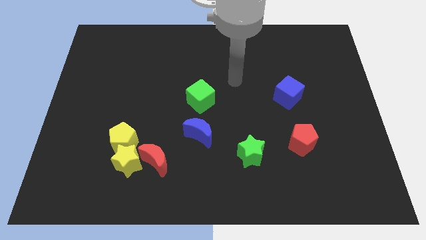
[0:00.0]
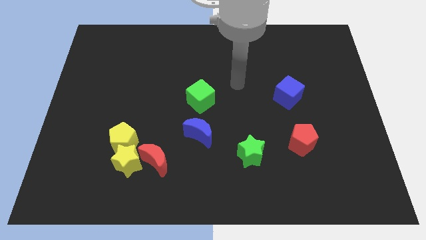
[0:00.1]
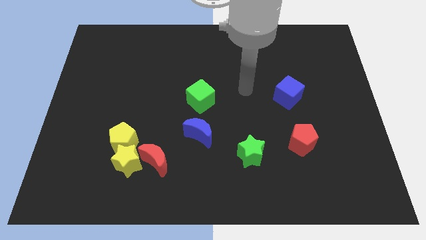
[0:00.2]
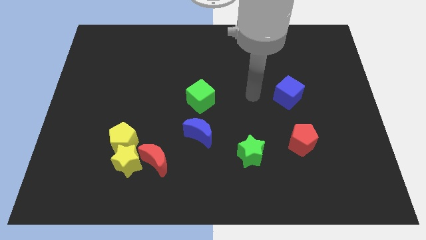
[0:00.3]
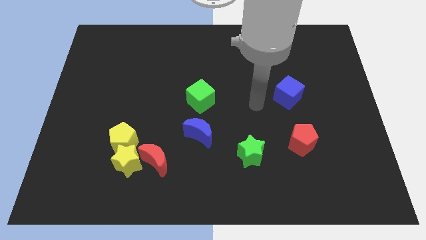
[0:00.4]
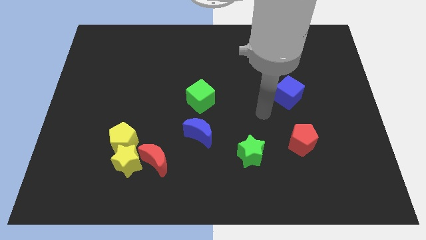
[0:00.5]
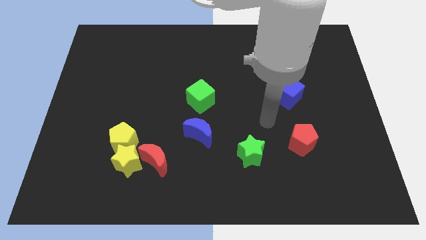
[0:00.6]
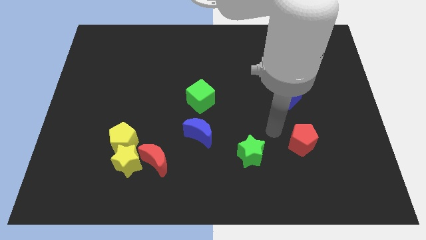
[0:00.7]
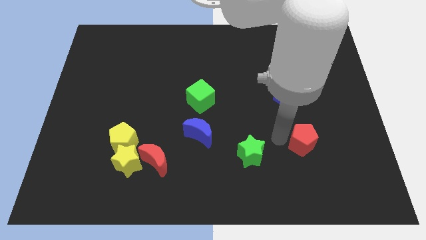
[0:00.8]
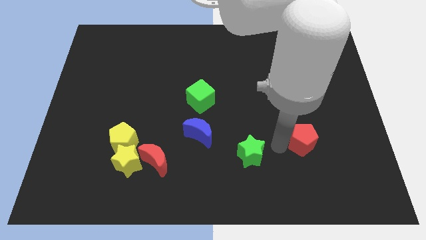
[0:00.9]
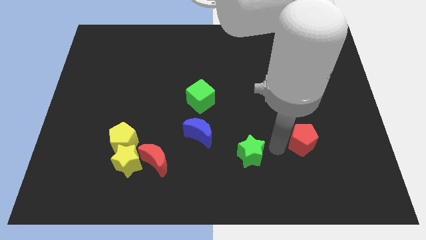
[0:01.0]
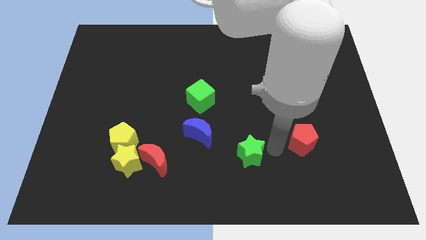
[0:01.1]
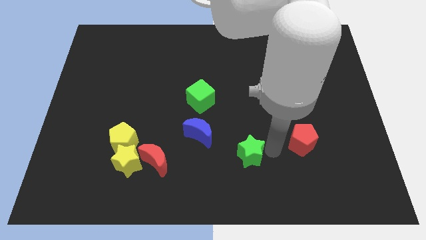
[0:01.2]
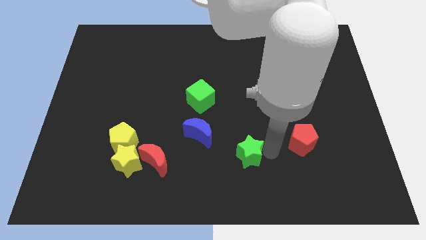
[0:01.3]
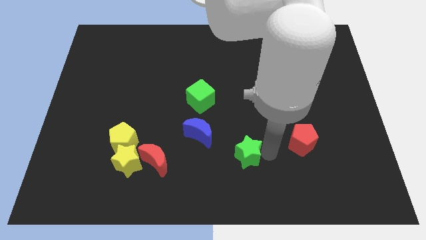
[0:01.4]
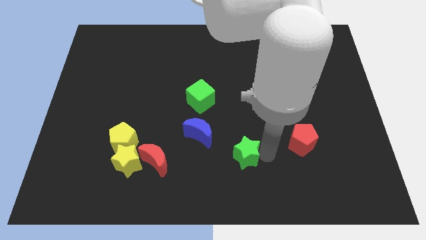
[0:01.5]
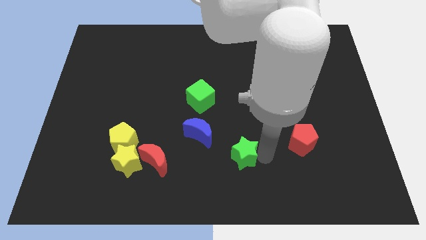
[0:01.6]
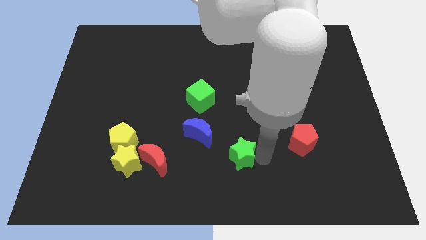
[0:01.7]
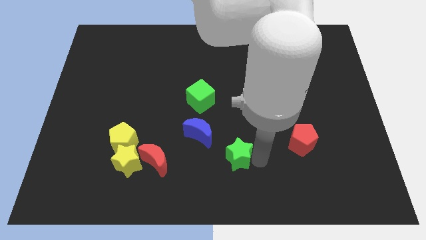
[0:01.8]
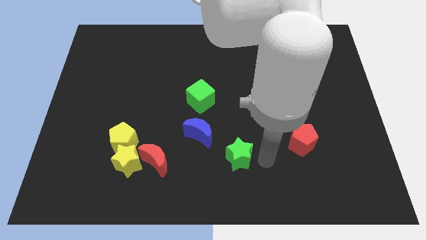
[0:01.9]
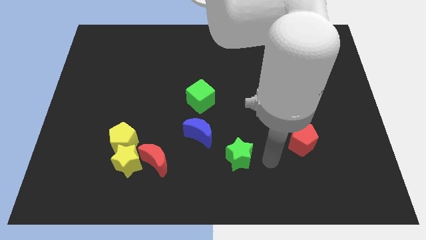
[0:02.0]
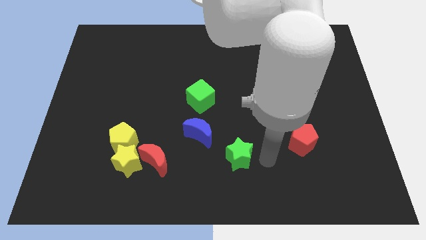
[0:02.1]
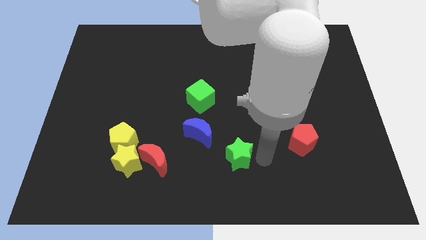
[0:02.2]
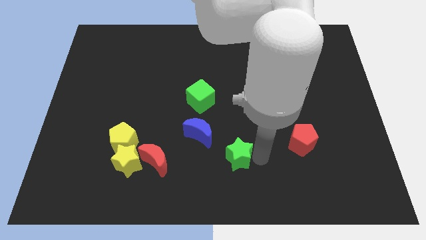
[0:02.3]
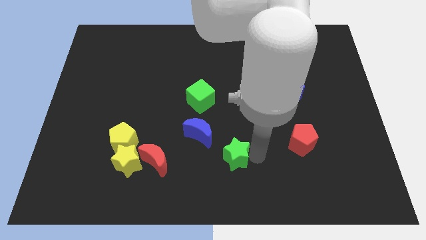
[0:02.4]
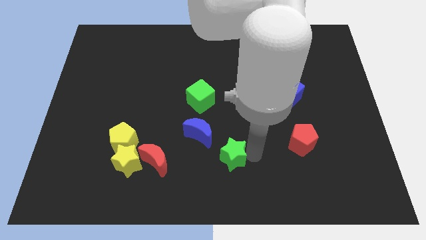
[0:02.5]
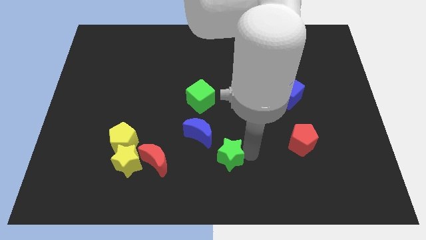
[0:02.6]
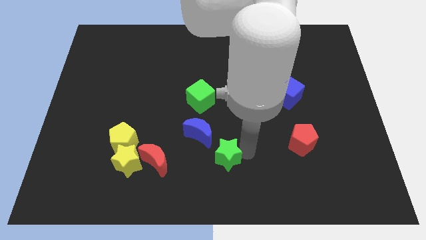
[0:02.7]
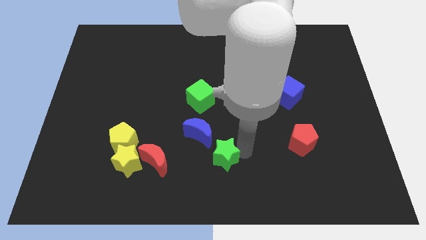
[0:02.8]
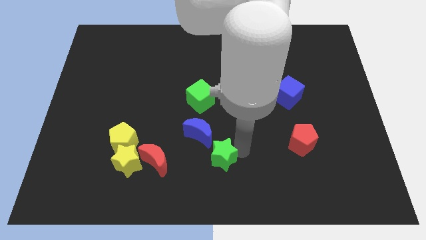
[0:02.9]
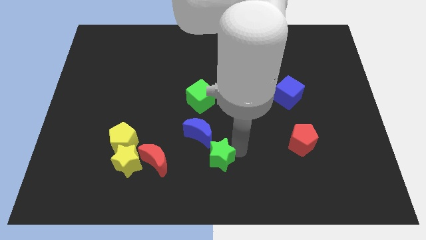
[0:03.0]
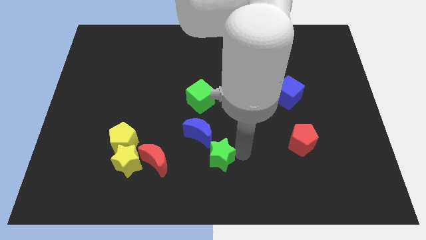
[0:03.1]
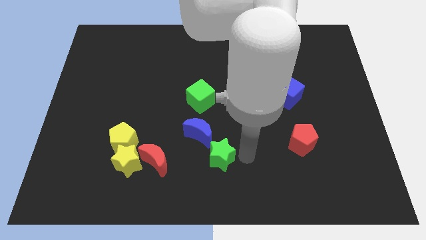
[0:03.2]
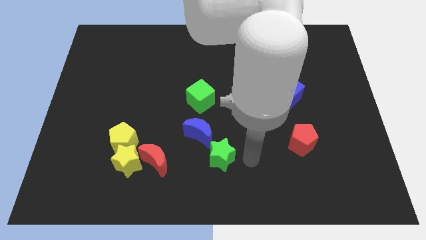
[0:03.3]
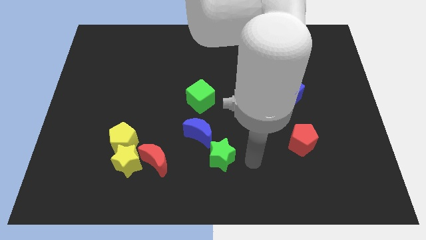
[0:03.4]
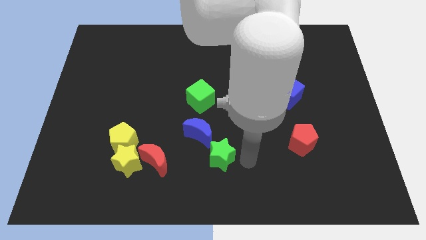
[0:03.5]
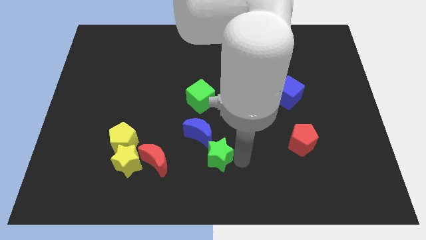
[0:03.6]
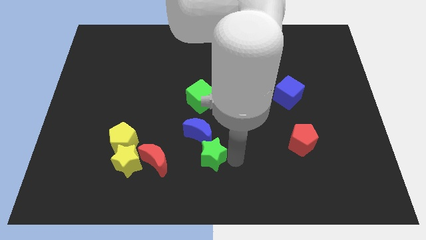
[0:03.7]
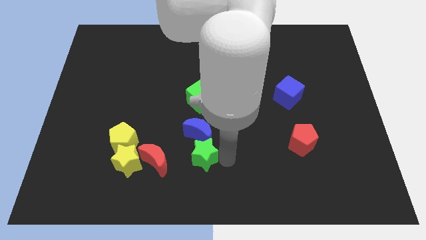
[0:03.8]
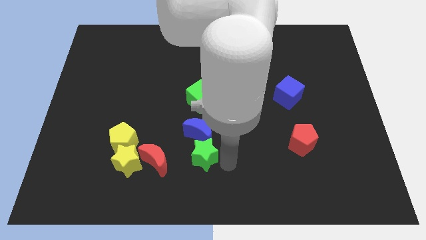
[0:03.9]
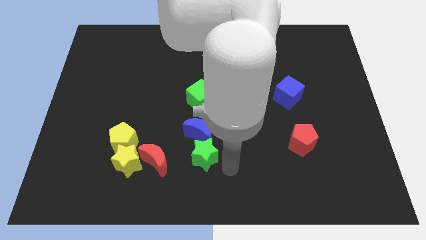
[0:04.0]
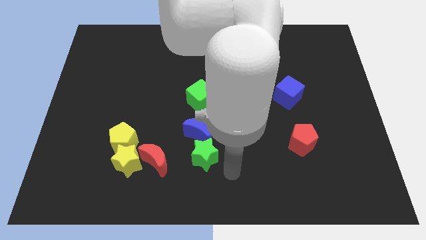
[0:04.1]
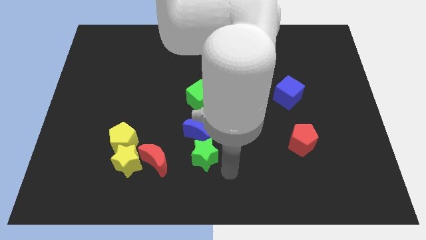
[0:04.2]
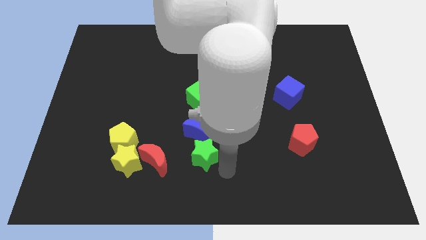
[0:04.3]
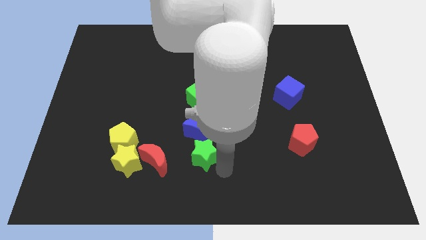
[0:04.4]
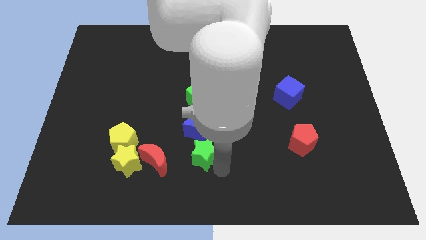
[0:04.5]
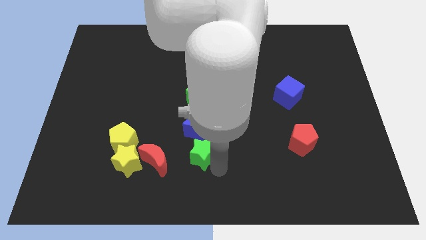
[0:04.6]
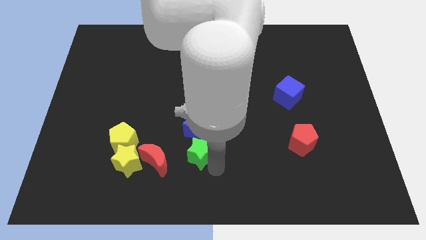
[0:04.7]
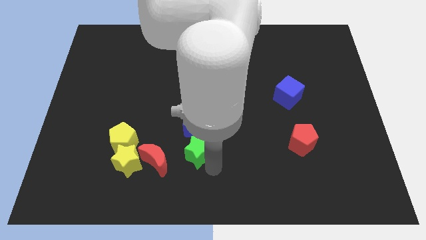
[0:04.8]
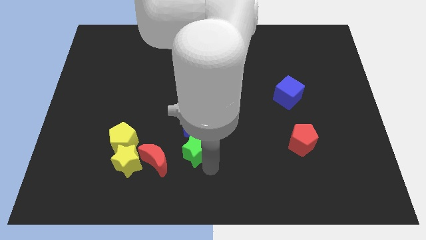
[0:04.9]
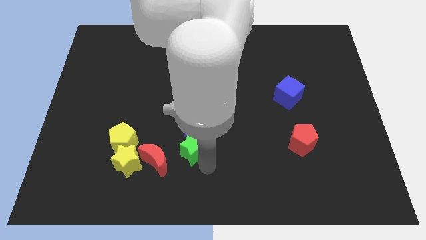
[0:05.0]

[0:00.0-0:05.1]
put the green star just right of the yellow pentagon

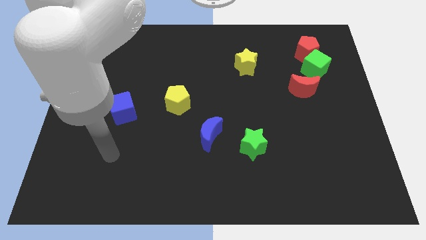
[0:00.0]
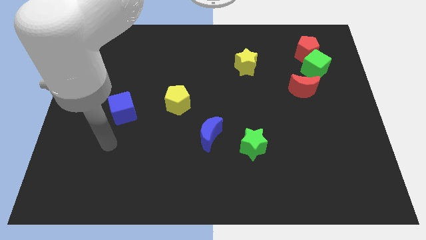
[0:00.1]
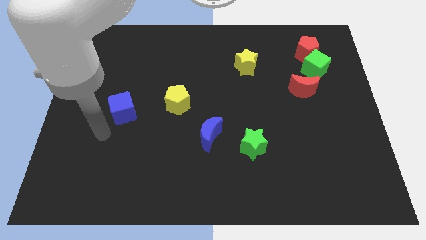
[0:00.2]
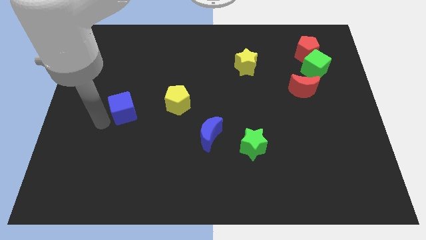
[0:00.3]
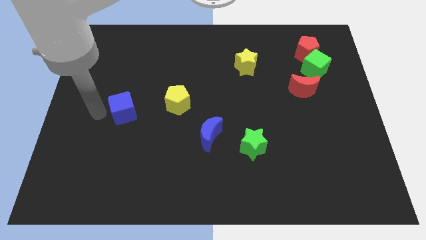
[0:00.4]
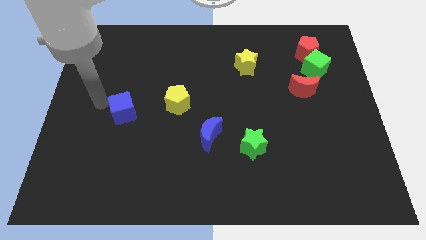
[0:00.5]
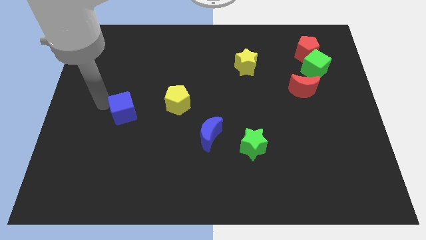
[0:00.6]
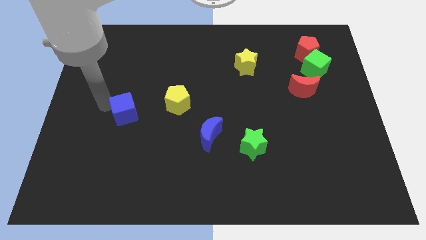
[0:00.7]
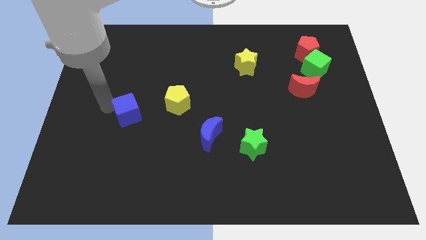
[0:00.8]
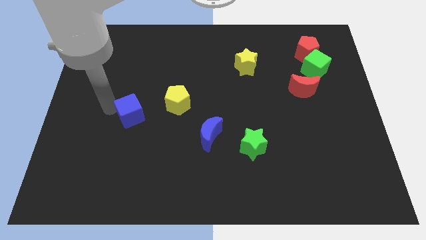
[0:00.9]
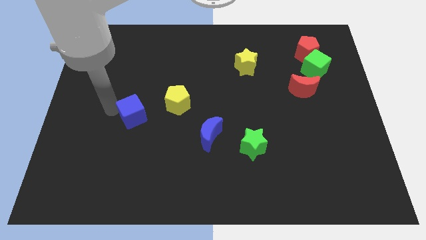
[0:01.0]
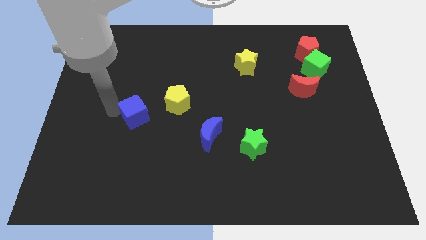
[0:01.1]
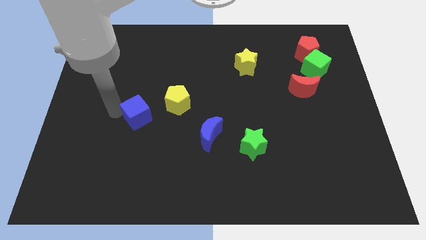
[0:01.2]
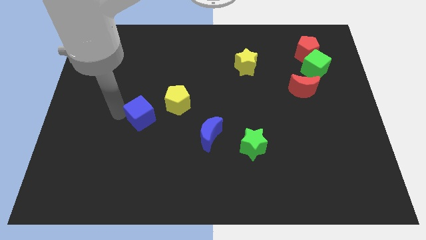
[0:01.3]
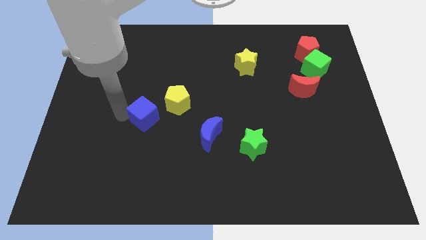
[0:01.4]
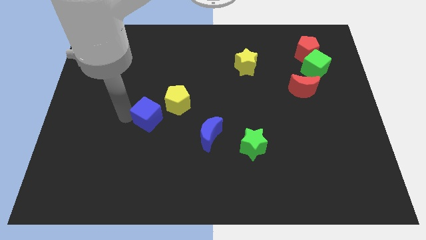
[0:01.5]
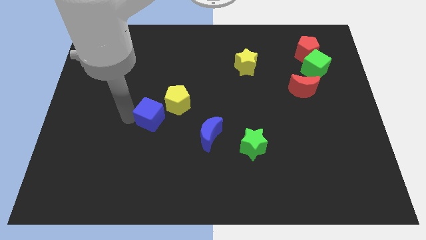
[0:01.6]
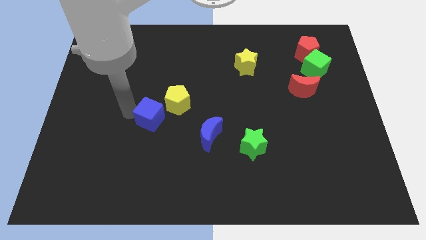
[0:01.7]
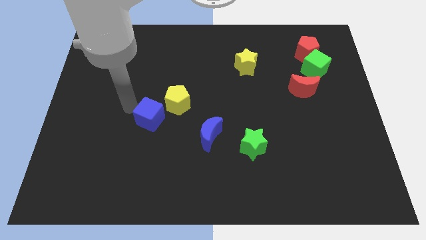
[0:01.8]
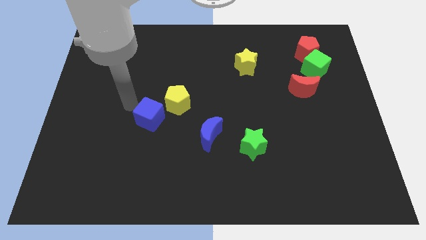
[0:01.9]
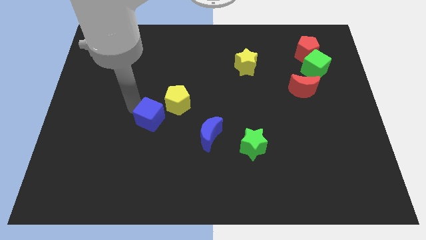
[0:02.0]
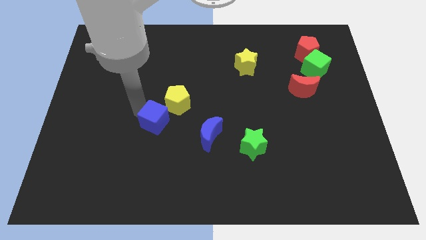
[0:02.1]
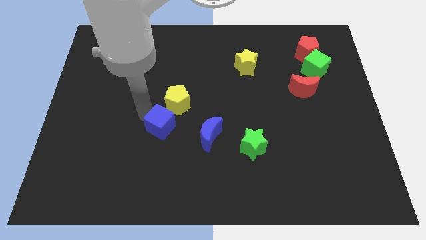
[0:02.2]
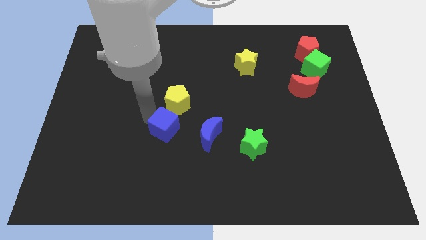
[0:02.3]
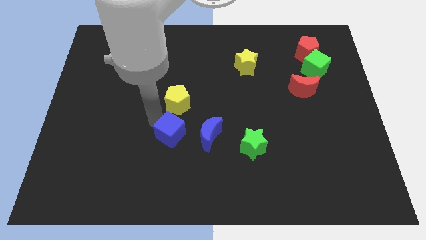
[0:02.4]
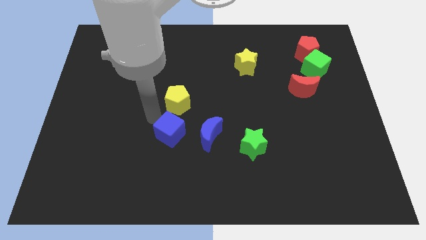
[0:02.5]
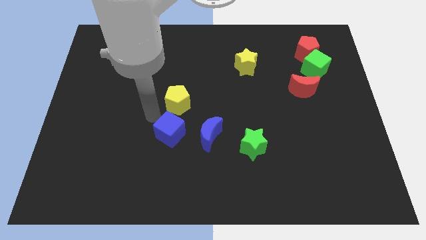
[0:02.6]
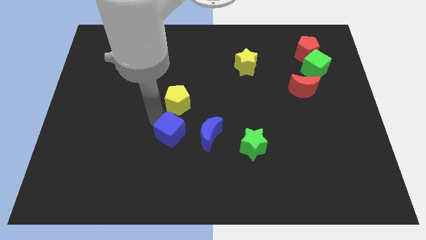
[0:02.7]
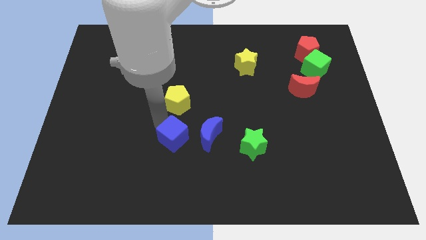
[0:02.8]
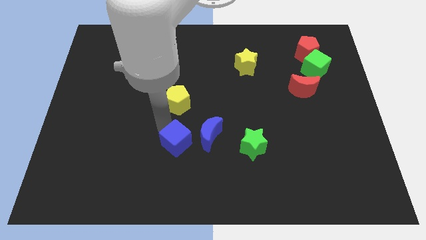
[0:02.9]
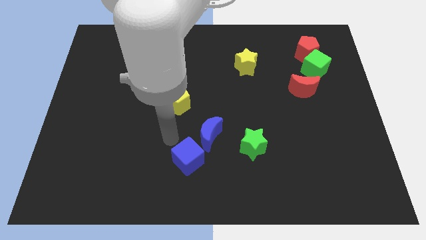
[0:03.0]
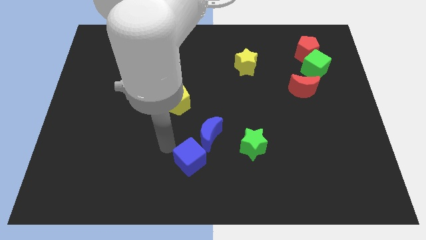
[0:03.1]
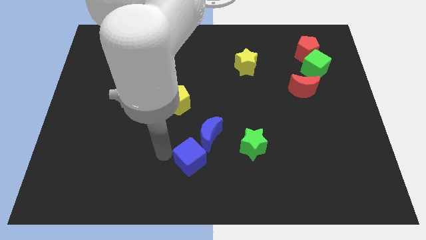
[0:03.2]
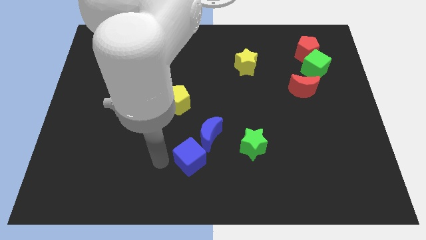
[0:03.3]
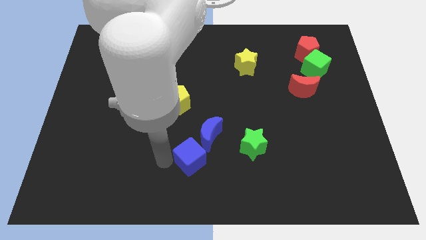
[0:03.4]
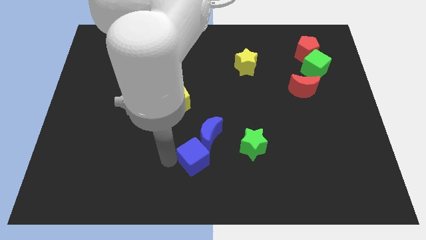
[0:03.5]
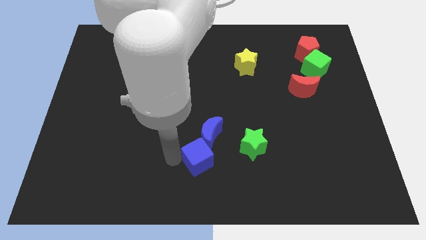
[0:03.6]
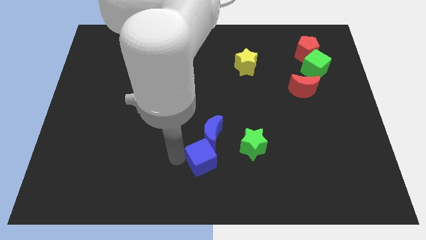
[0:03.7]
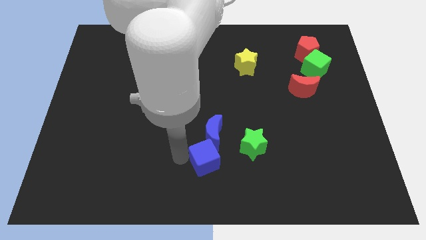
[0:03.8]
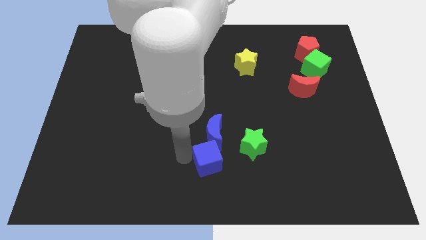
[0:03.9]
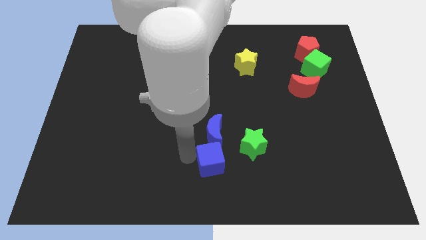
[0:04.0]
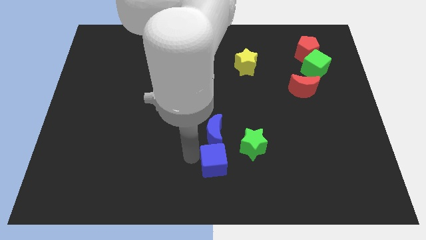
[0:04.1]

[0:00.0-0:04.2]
move the blue cube diagonally down and to the right of the blue moon
